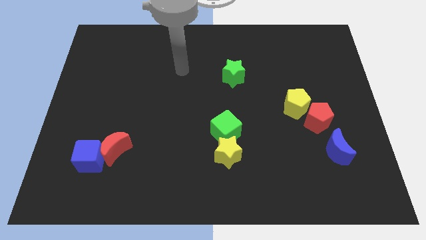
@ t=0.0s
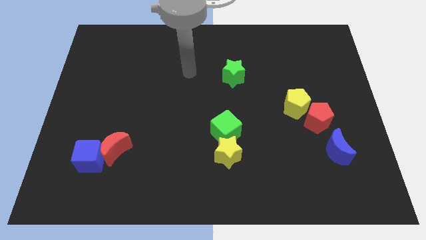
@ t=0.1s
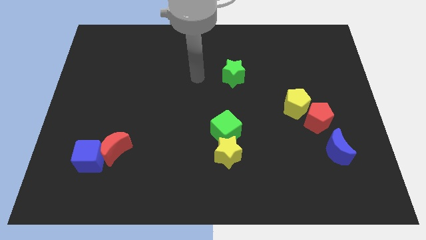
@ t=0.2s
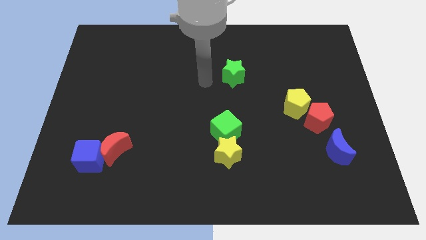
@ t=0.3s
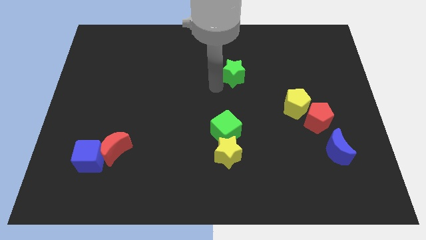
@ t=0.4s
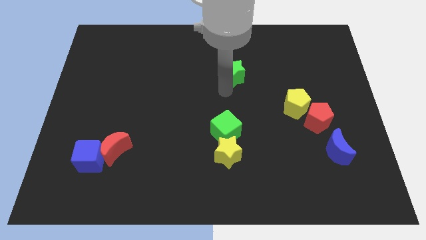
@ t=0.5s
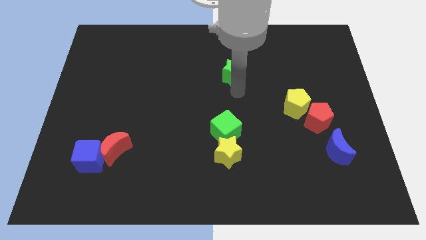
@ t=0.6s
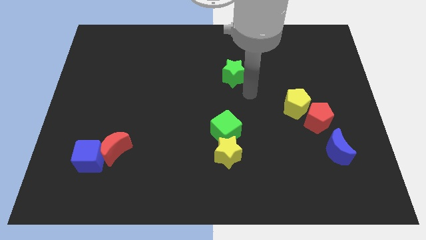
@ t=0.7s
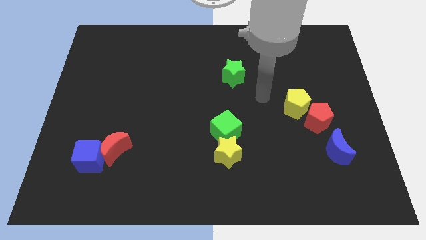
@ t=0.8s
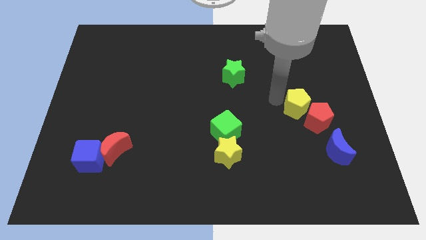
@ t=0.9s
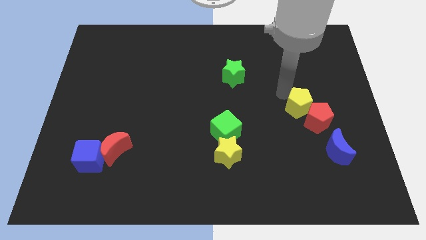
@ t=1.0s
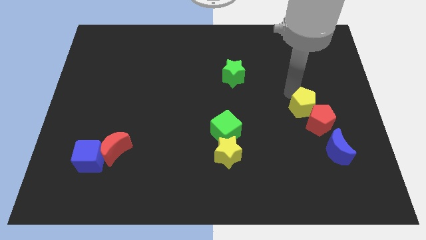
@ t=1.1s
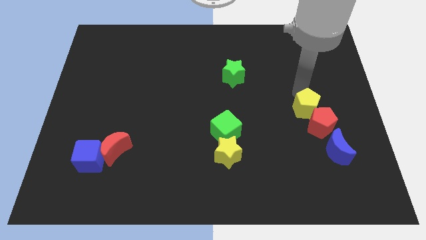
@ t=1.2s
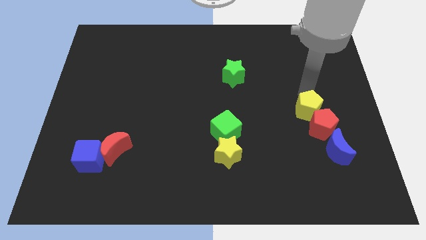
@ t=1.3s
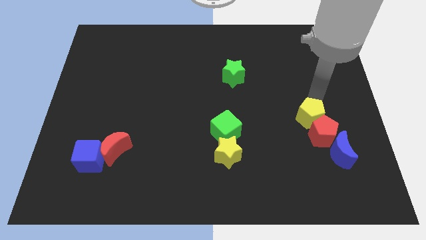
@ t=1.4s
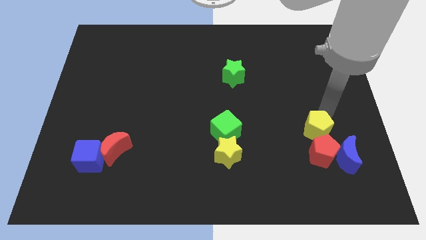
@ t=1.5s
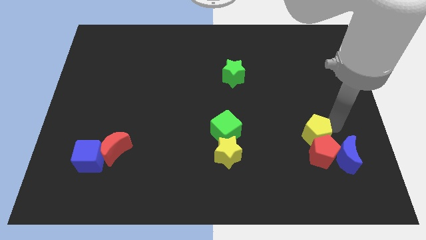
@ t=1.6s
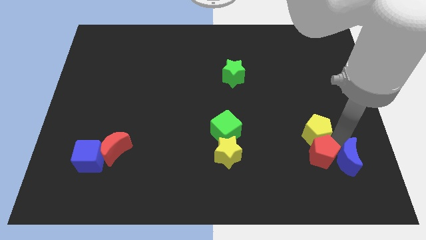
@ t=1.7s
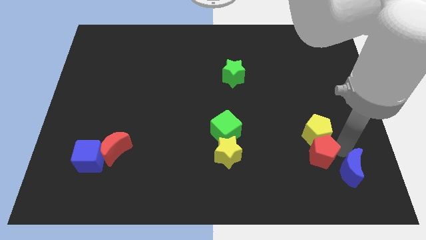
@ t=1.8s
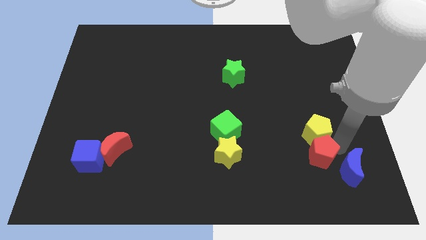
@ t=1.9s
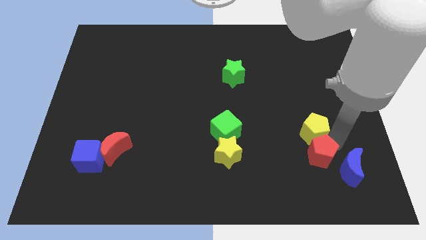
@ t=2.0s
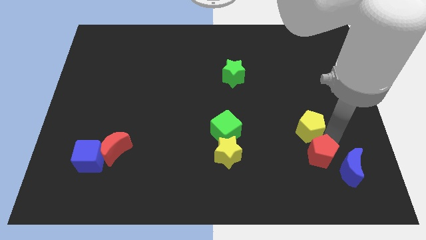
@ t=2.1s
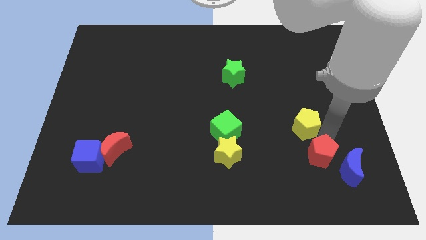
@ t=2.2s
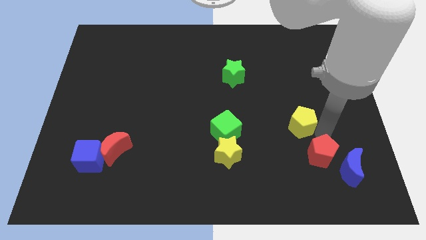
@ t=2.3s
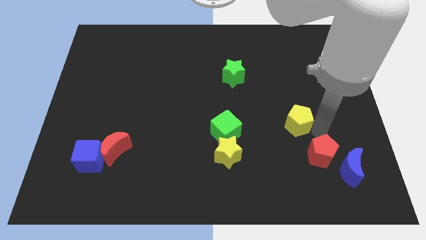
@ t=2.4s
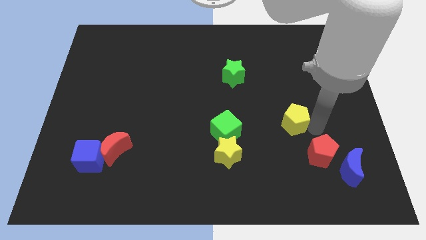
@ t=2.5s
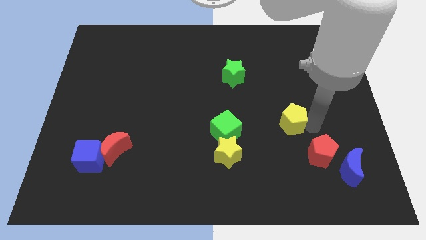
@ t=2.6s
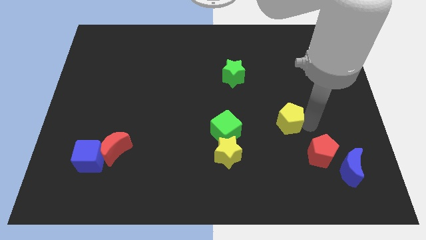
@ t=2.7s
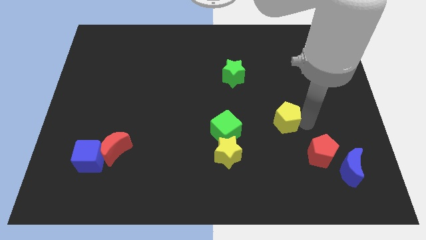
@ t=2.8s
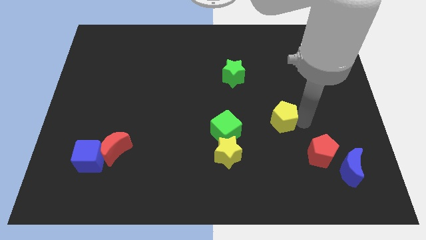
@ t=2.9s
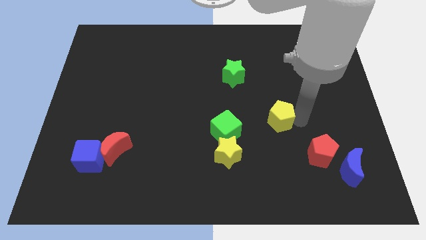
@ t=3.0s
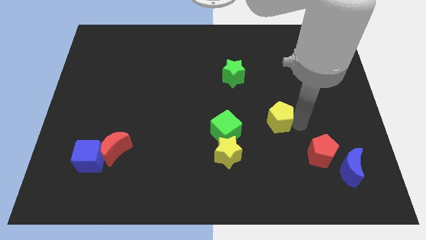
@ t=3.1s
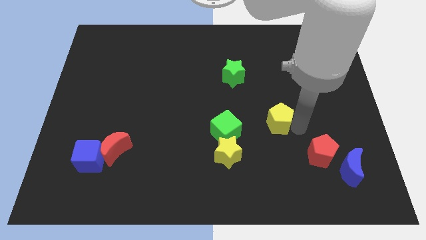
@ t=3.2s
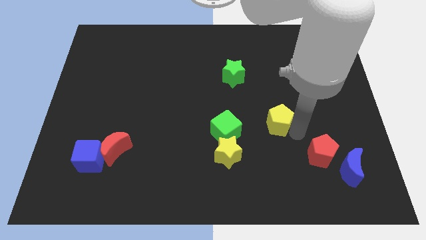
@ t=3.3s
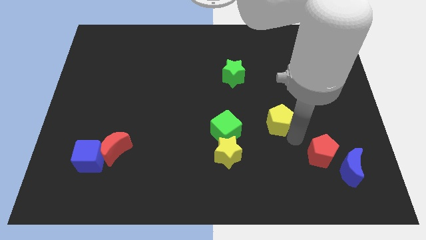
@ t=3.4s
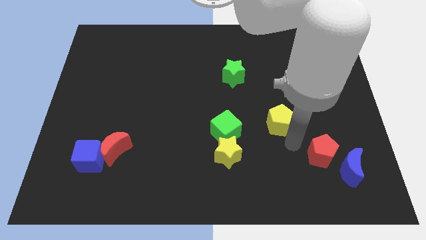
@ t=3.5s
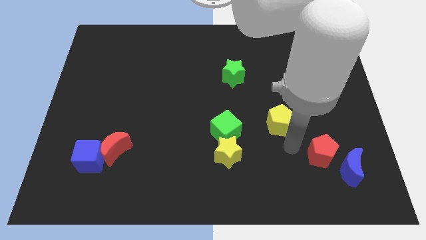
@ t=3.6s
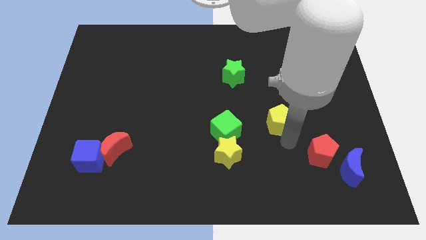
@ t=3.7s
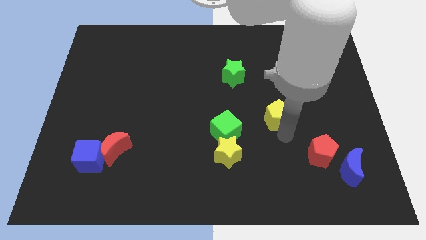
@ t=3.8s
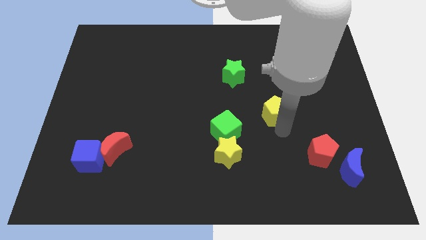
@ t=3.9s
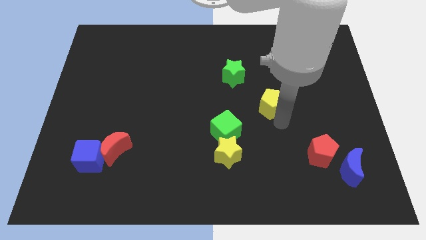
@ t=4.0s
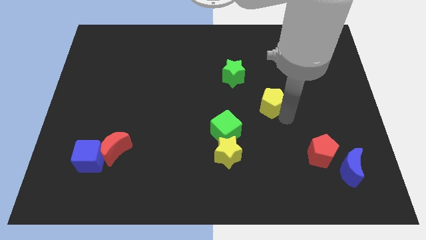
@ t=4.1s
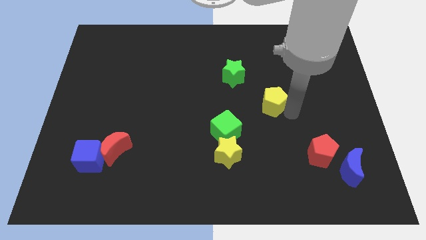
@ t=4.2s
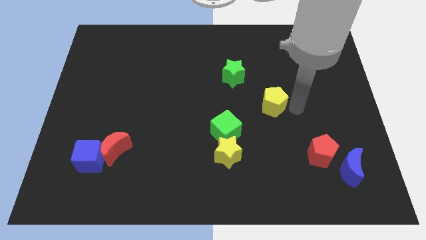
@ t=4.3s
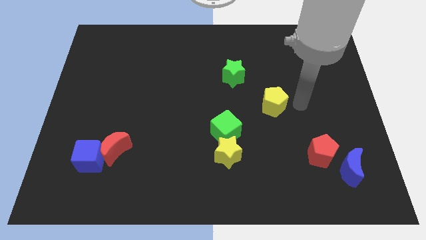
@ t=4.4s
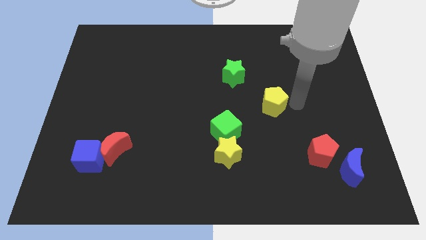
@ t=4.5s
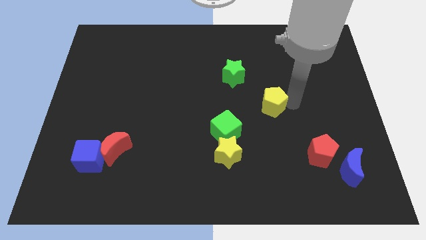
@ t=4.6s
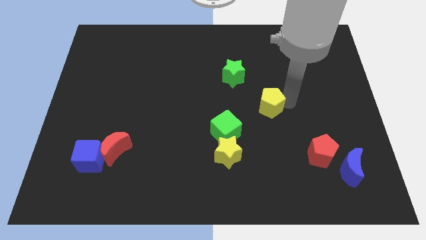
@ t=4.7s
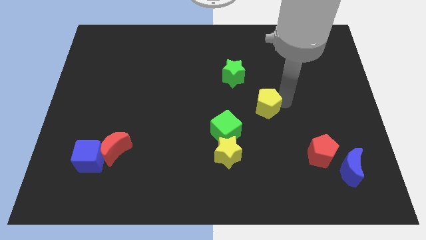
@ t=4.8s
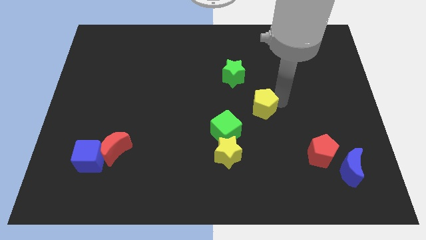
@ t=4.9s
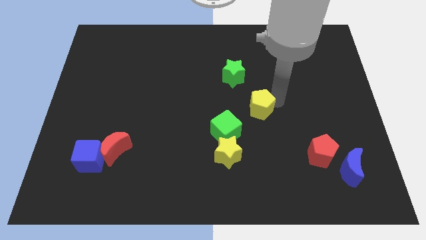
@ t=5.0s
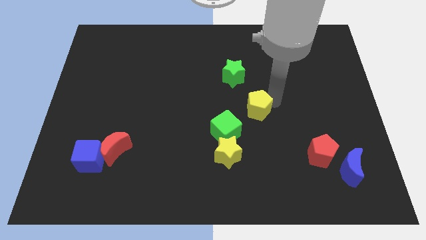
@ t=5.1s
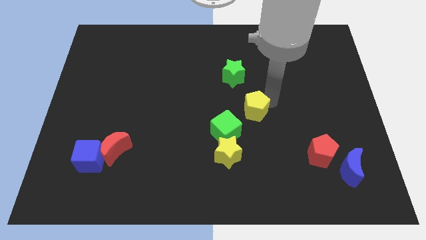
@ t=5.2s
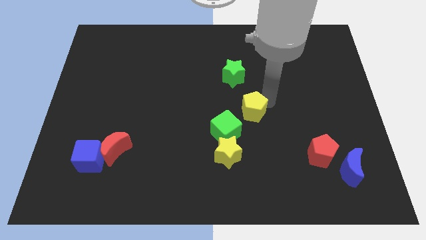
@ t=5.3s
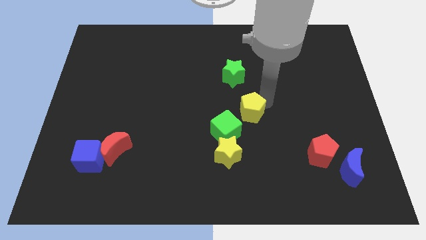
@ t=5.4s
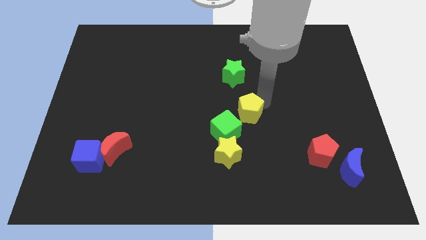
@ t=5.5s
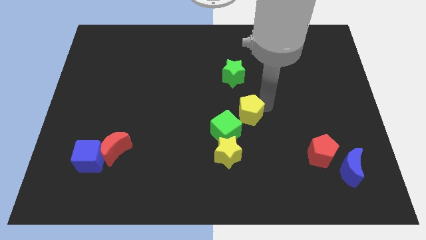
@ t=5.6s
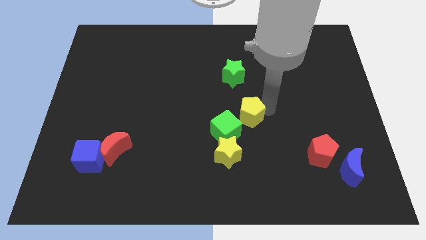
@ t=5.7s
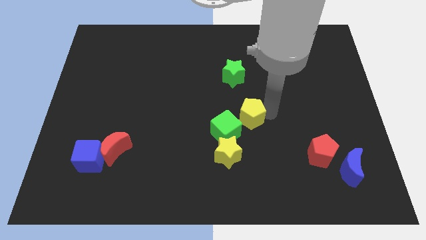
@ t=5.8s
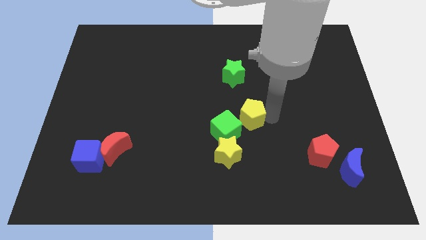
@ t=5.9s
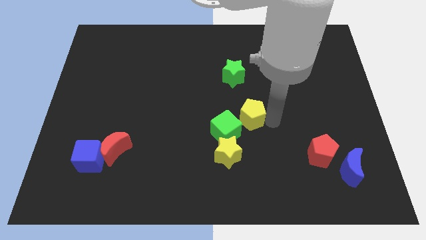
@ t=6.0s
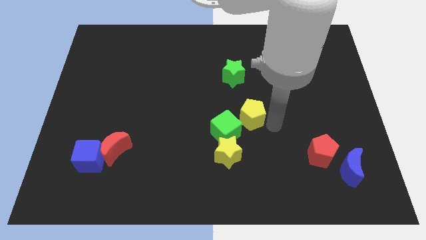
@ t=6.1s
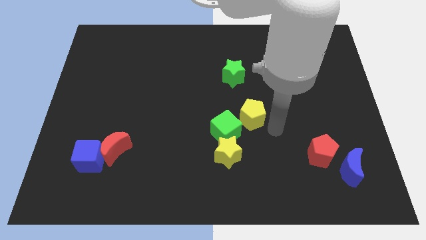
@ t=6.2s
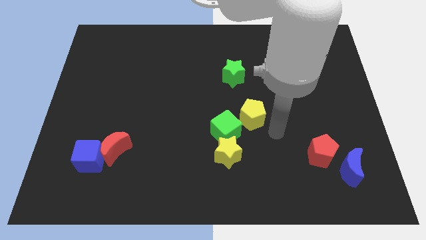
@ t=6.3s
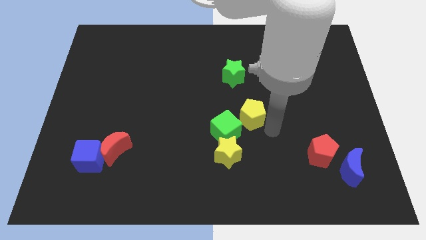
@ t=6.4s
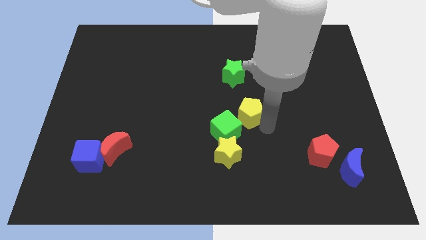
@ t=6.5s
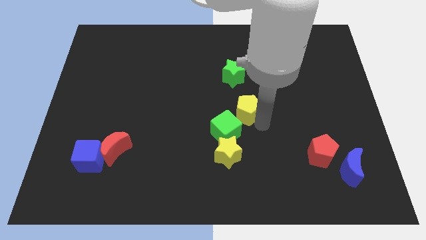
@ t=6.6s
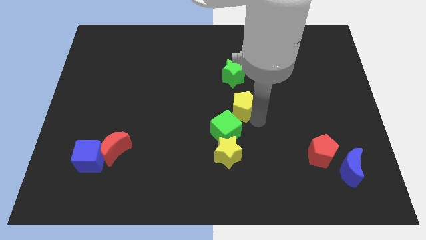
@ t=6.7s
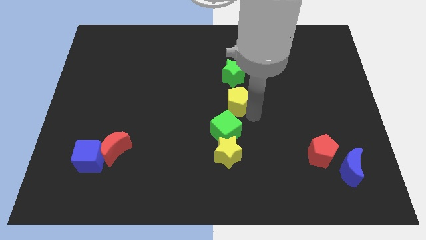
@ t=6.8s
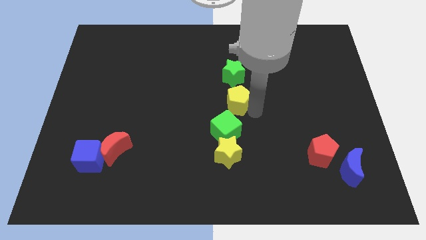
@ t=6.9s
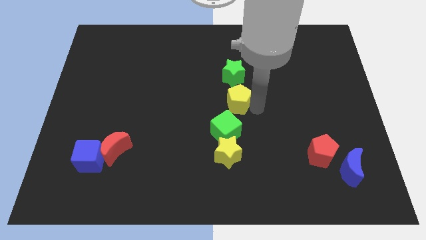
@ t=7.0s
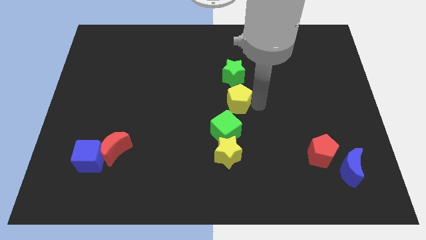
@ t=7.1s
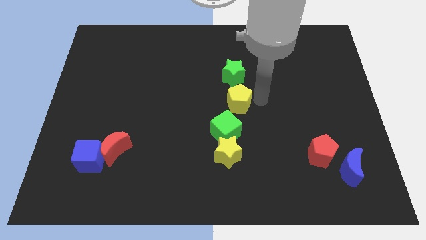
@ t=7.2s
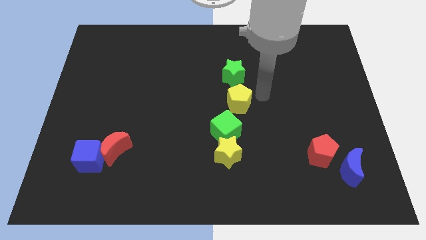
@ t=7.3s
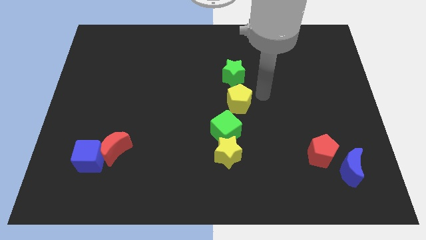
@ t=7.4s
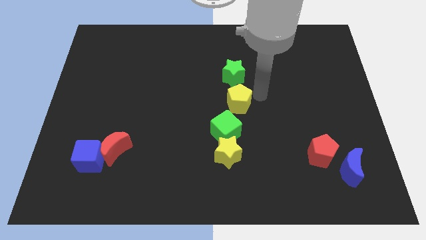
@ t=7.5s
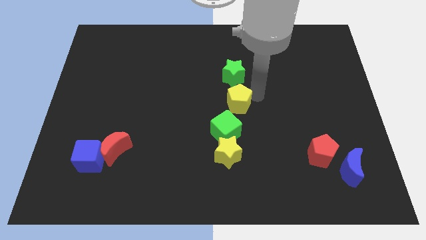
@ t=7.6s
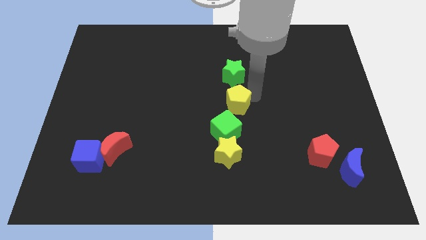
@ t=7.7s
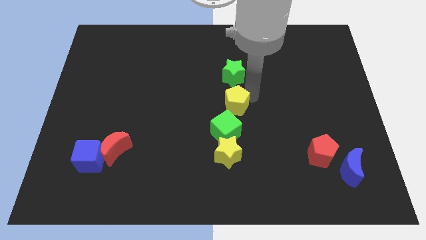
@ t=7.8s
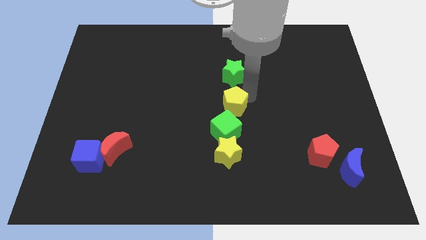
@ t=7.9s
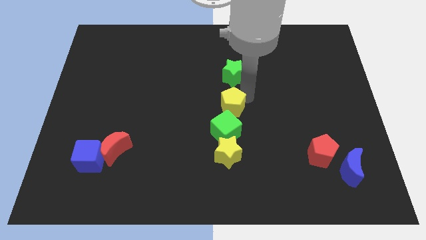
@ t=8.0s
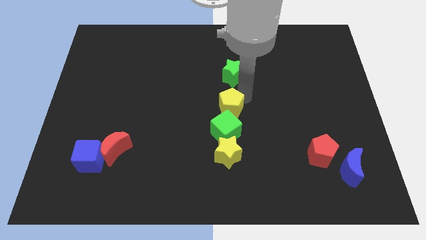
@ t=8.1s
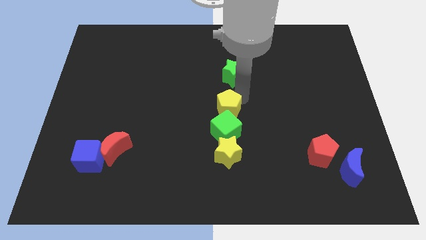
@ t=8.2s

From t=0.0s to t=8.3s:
slide the yellow pentagon diagonally up and to the left of the green cube
